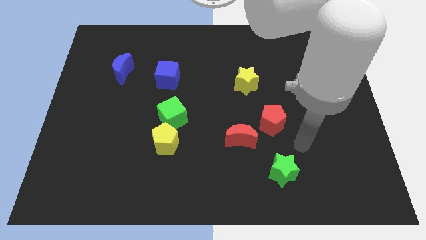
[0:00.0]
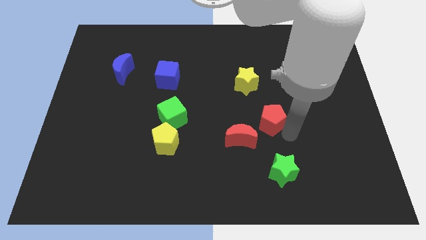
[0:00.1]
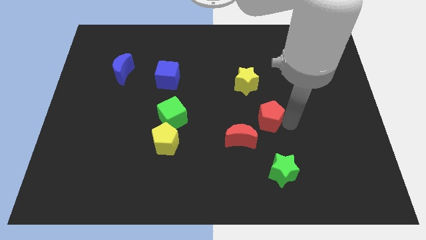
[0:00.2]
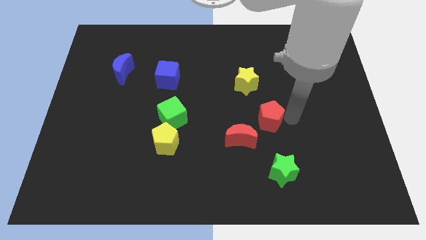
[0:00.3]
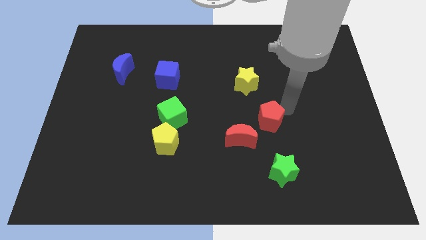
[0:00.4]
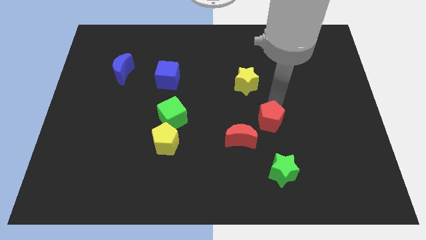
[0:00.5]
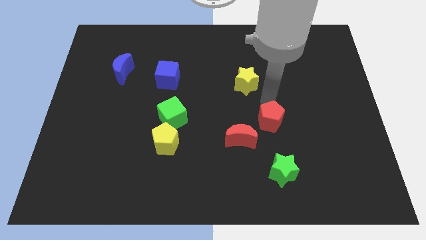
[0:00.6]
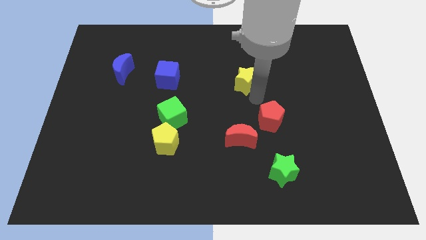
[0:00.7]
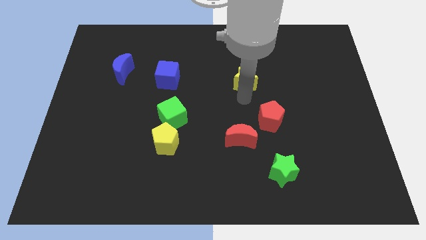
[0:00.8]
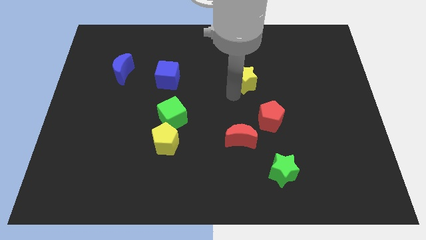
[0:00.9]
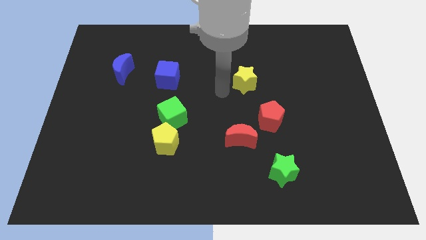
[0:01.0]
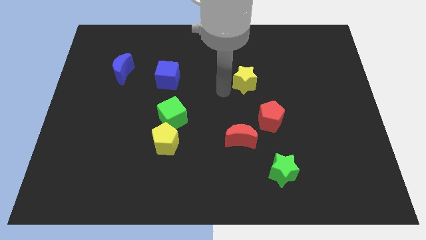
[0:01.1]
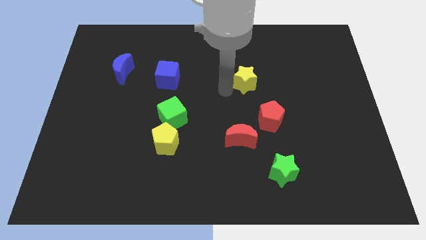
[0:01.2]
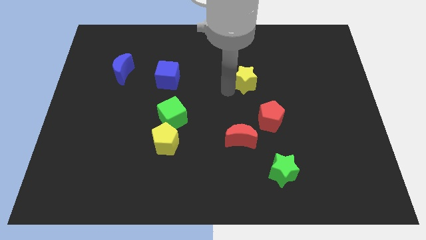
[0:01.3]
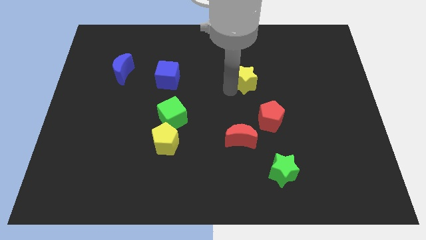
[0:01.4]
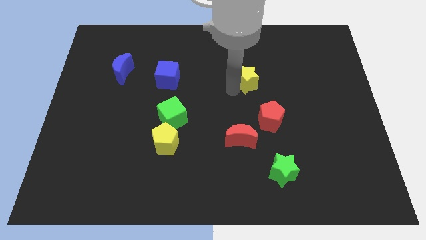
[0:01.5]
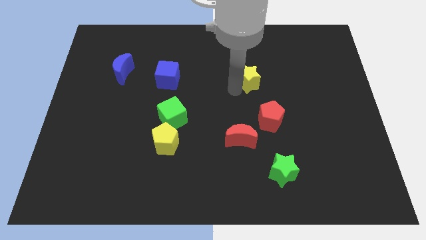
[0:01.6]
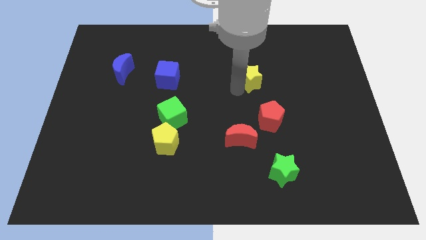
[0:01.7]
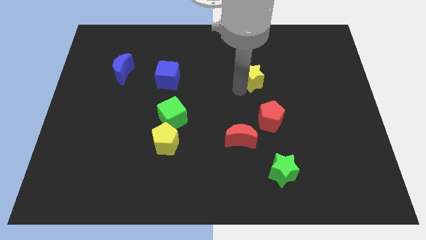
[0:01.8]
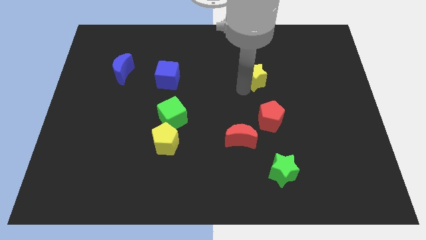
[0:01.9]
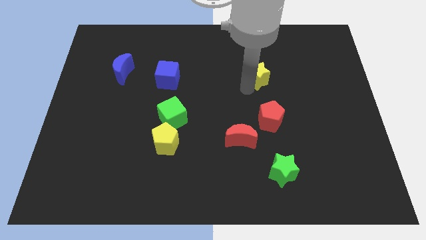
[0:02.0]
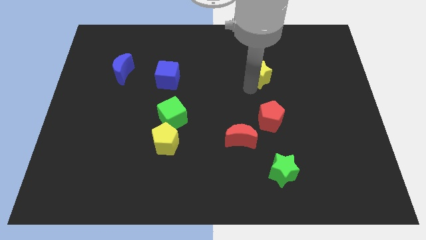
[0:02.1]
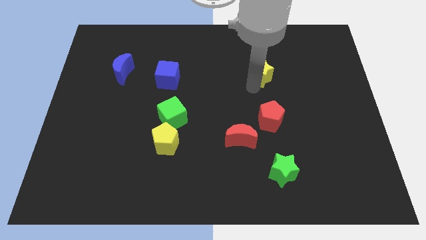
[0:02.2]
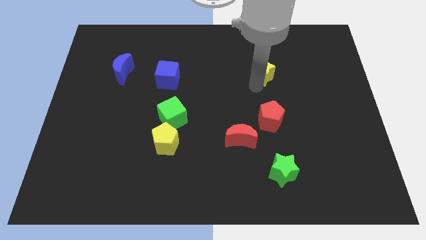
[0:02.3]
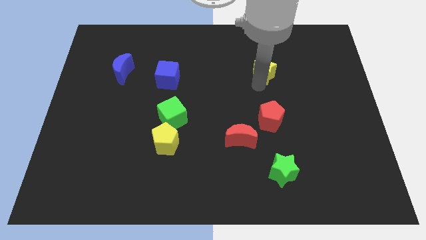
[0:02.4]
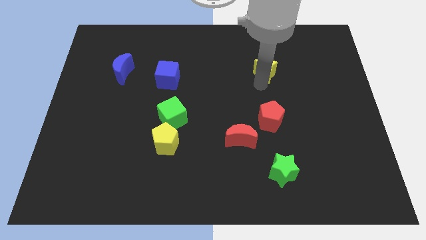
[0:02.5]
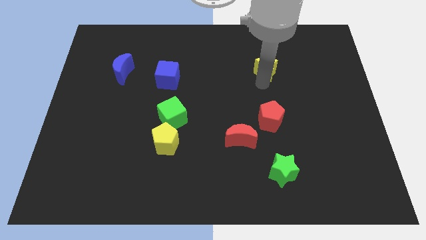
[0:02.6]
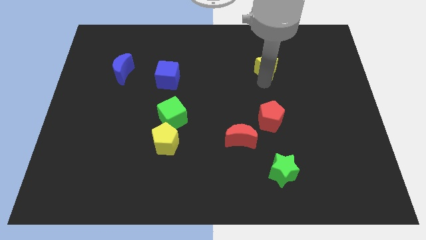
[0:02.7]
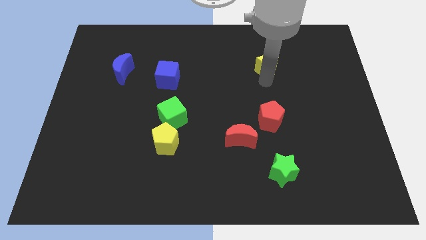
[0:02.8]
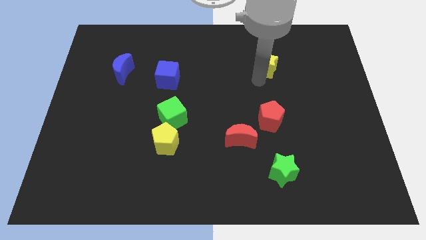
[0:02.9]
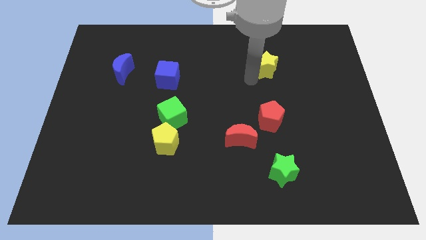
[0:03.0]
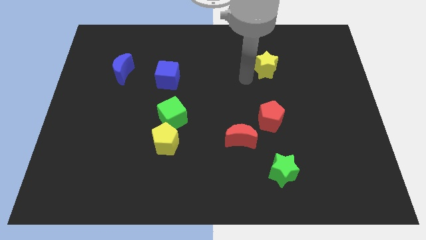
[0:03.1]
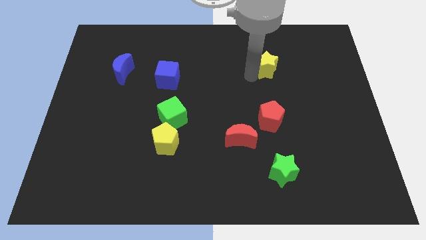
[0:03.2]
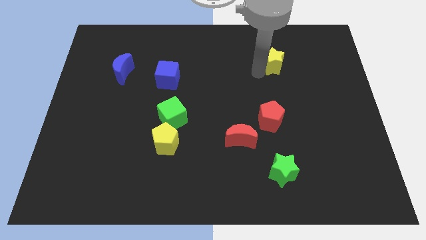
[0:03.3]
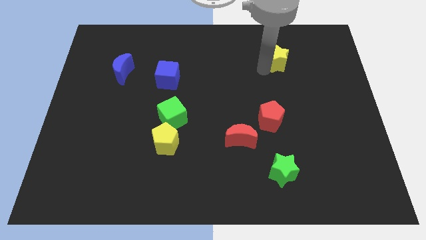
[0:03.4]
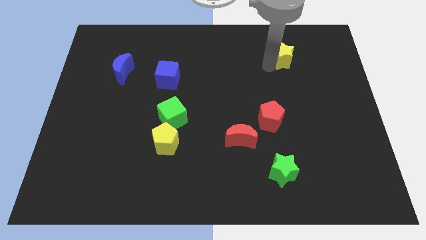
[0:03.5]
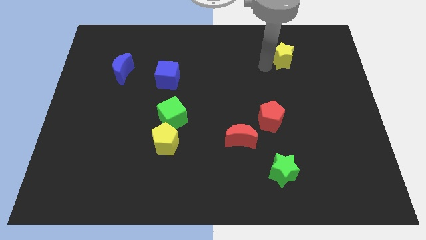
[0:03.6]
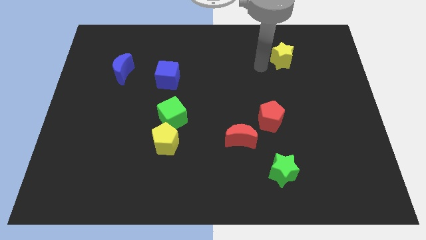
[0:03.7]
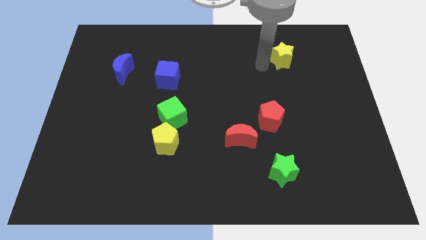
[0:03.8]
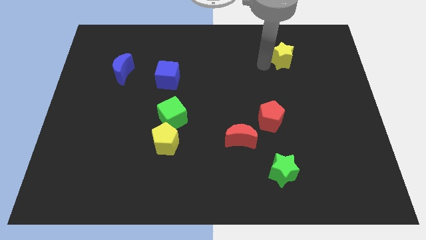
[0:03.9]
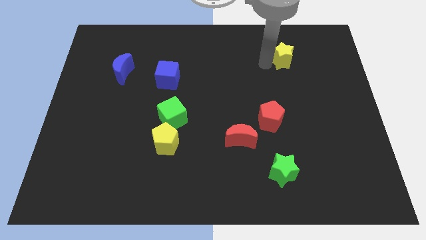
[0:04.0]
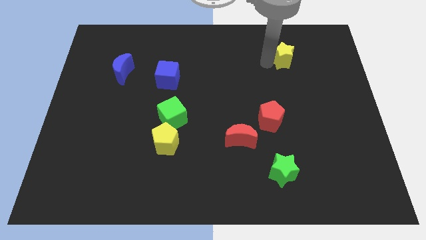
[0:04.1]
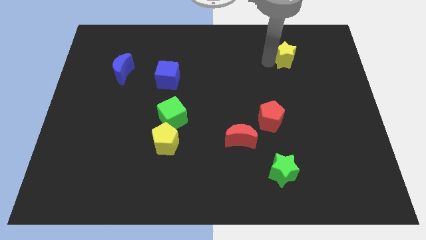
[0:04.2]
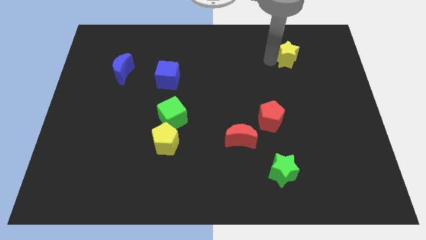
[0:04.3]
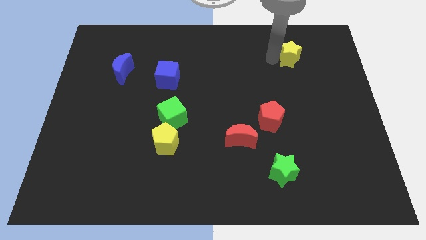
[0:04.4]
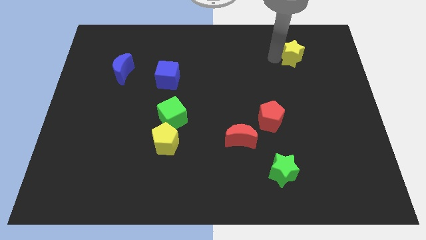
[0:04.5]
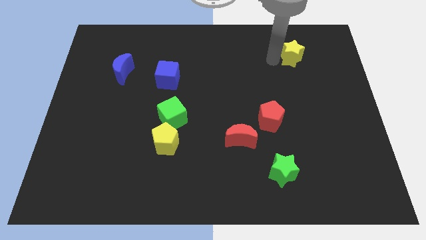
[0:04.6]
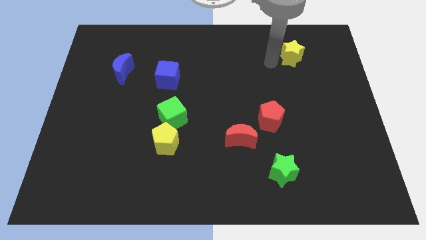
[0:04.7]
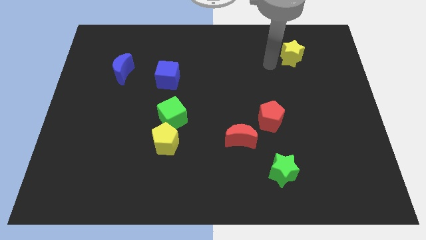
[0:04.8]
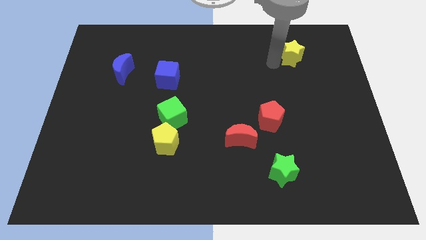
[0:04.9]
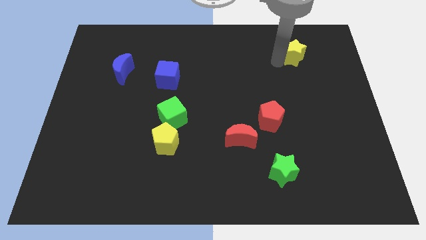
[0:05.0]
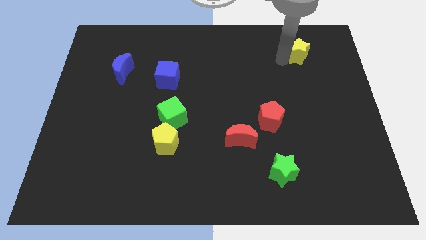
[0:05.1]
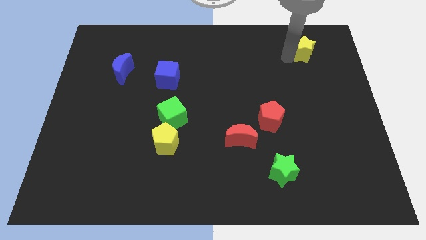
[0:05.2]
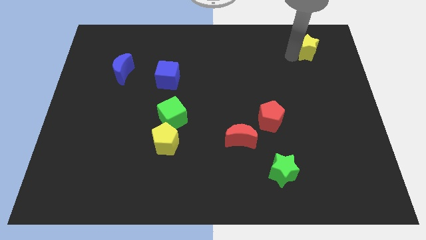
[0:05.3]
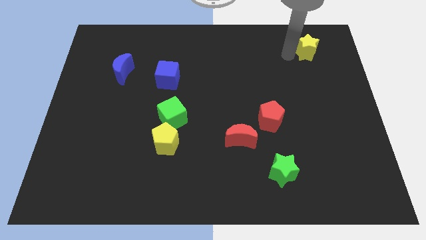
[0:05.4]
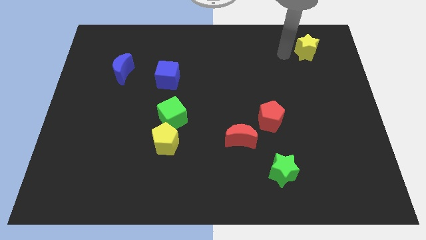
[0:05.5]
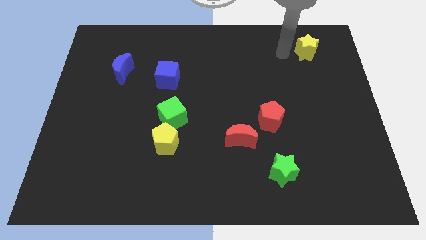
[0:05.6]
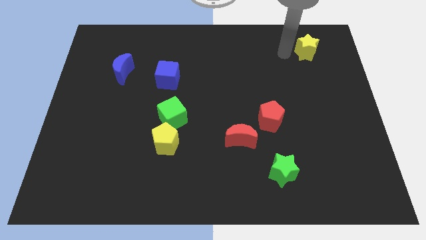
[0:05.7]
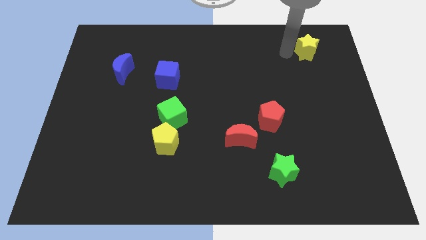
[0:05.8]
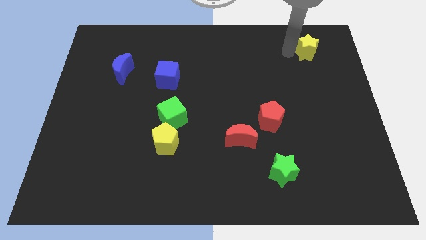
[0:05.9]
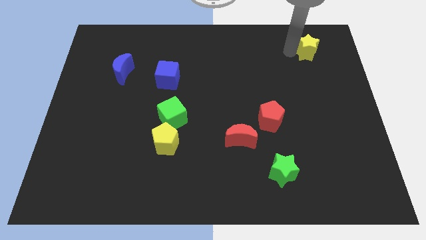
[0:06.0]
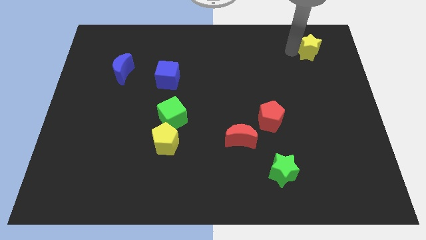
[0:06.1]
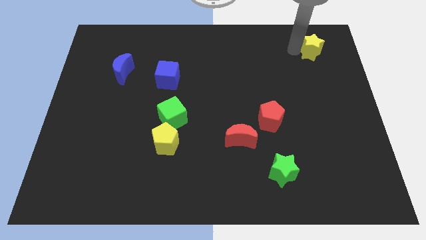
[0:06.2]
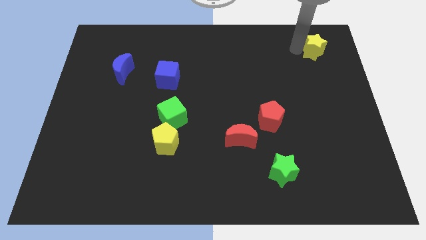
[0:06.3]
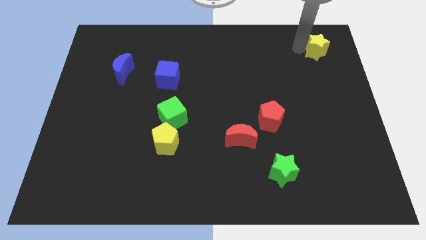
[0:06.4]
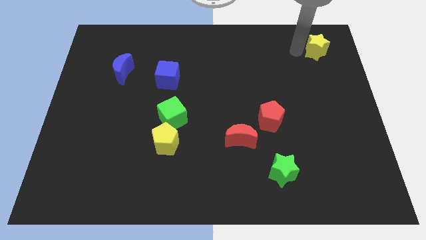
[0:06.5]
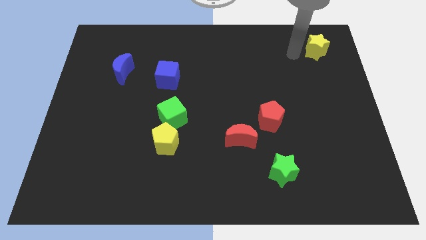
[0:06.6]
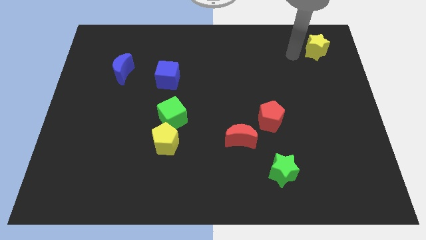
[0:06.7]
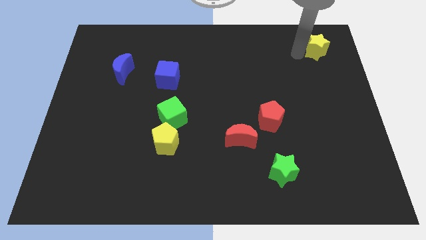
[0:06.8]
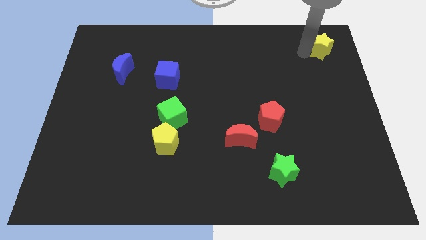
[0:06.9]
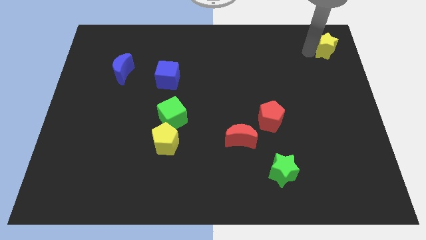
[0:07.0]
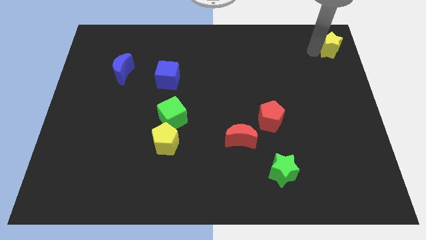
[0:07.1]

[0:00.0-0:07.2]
slide the yellow star to the upper right corner

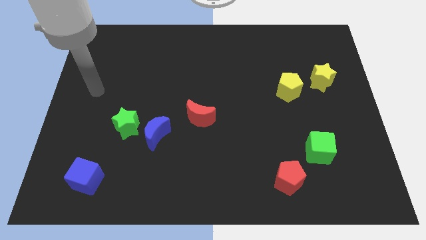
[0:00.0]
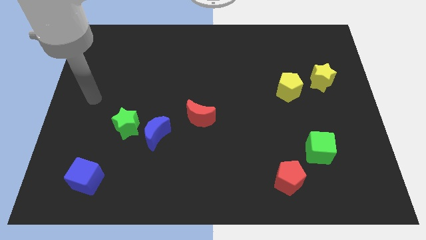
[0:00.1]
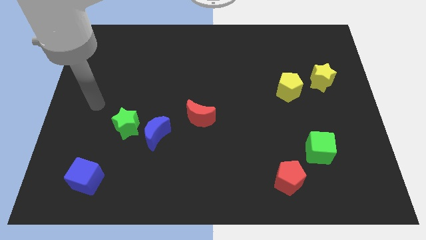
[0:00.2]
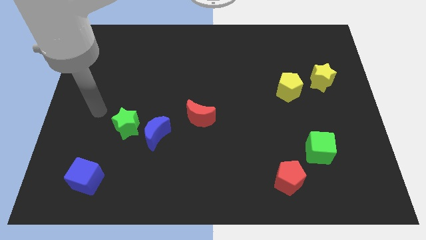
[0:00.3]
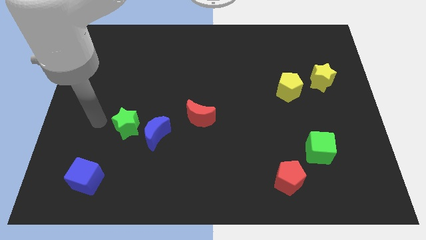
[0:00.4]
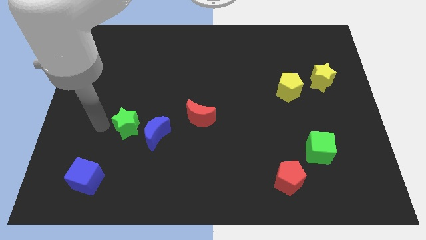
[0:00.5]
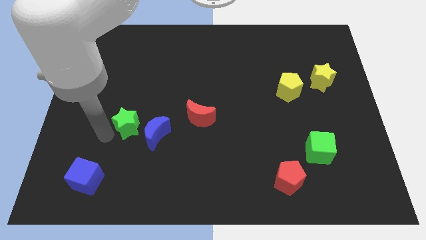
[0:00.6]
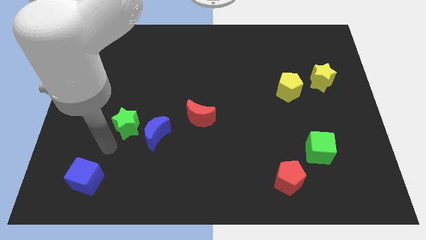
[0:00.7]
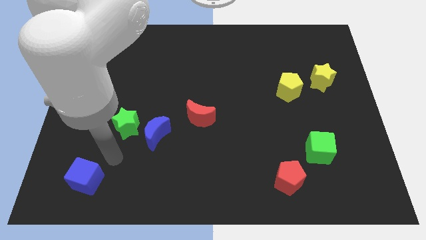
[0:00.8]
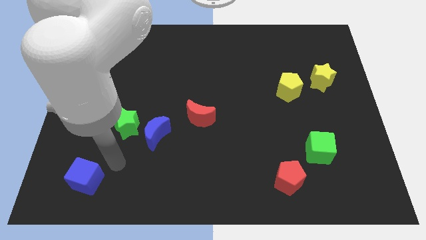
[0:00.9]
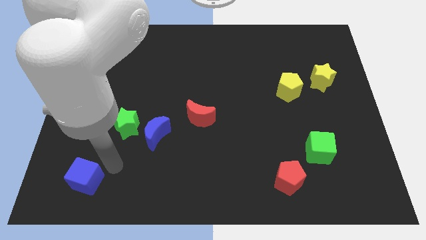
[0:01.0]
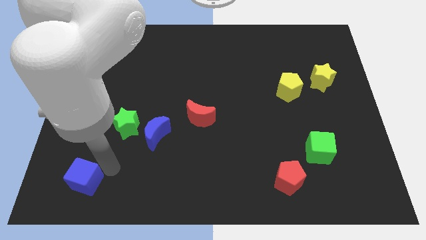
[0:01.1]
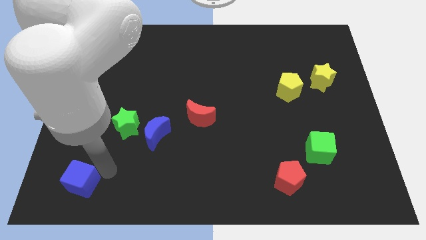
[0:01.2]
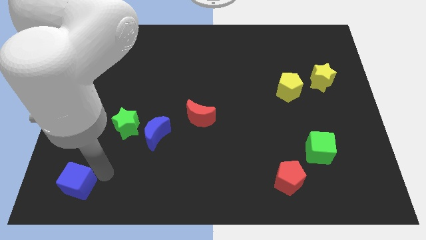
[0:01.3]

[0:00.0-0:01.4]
put the blue cube to the bottom left of the board
